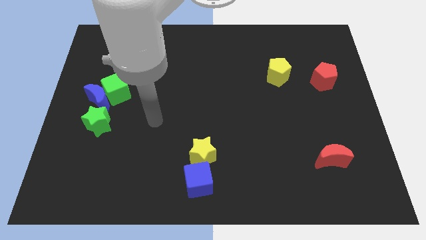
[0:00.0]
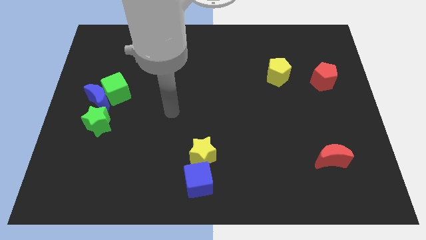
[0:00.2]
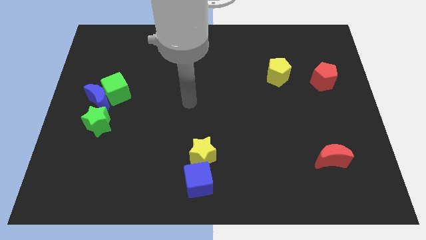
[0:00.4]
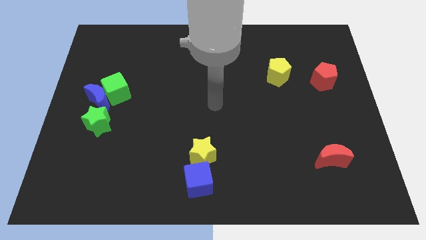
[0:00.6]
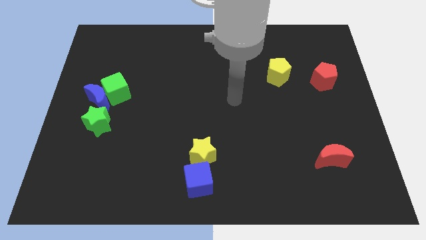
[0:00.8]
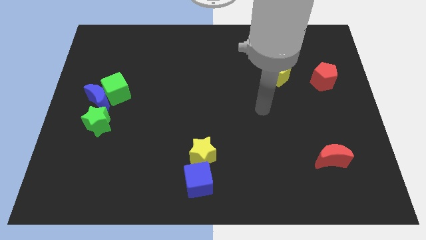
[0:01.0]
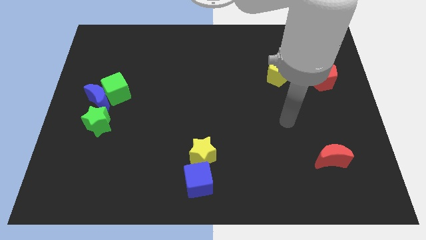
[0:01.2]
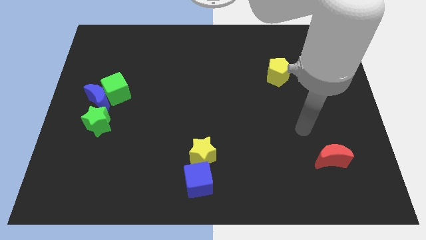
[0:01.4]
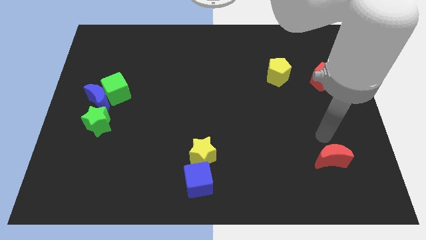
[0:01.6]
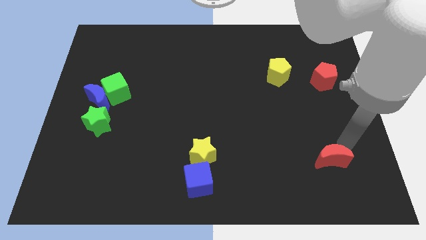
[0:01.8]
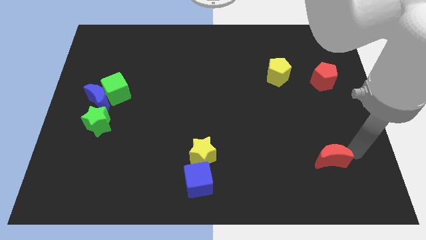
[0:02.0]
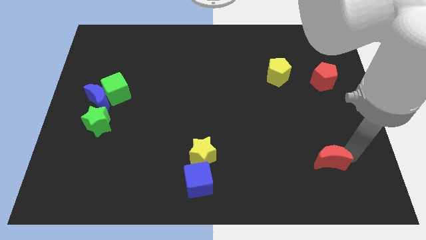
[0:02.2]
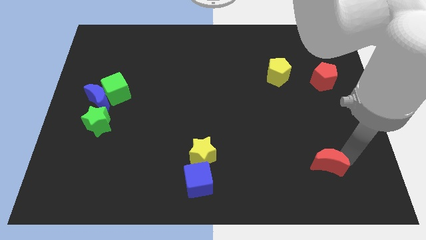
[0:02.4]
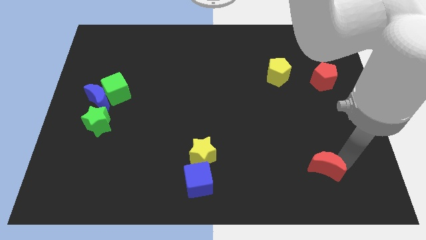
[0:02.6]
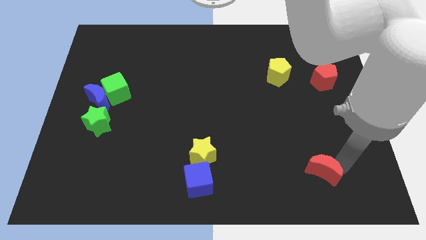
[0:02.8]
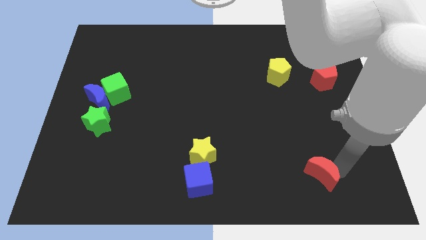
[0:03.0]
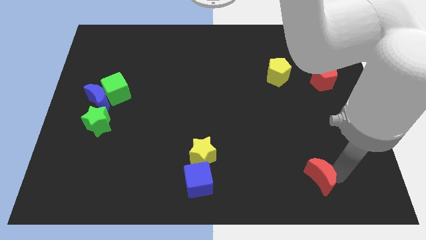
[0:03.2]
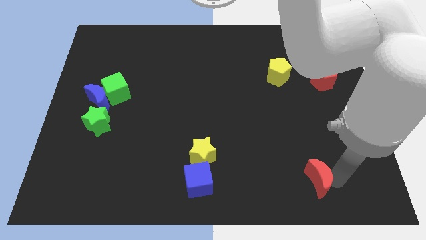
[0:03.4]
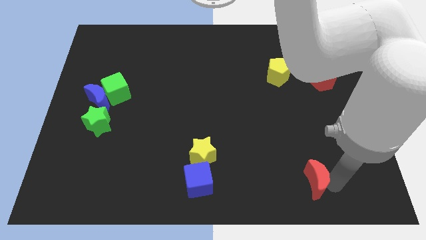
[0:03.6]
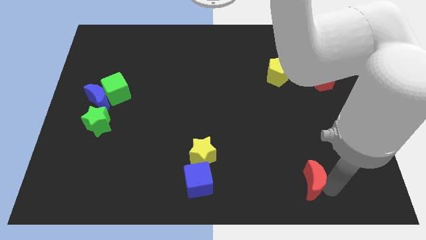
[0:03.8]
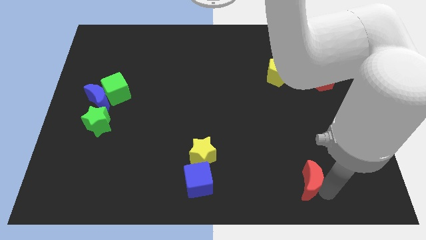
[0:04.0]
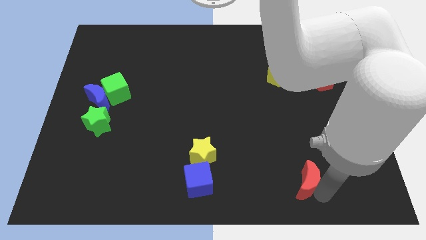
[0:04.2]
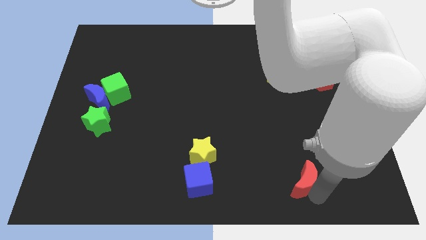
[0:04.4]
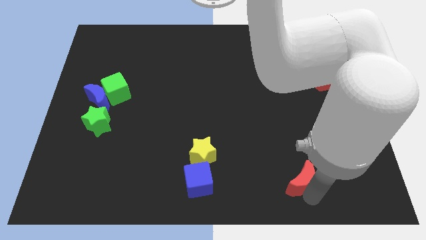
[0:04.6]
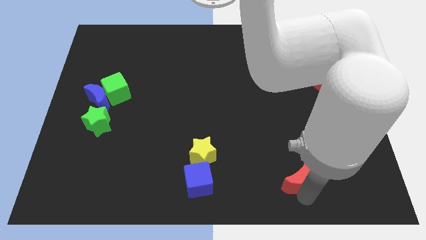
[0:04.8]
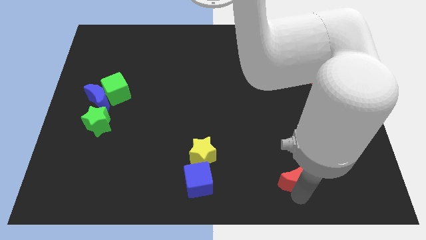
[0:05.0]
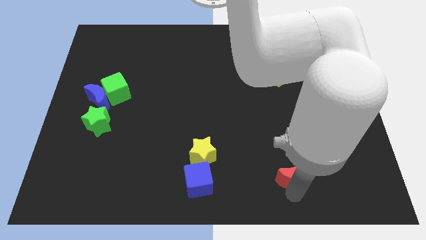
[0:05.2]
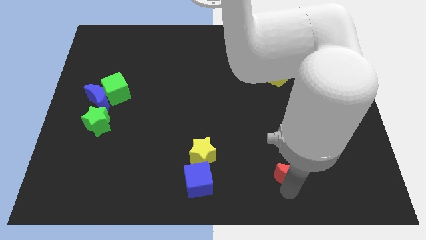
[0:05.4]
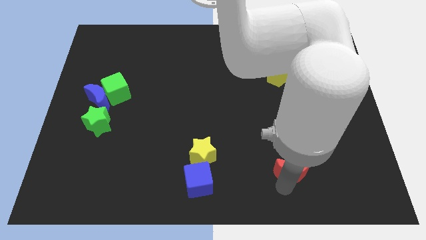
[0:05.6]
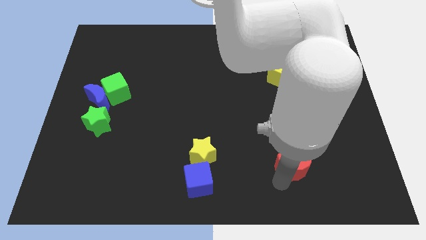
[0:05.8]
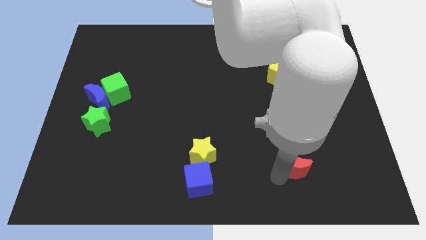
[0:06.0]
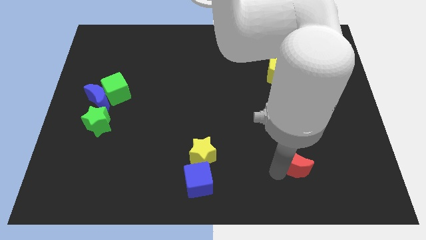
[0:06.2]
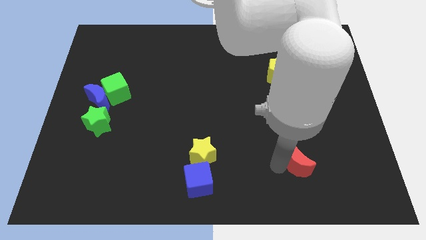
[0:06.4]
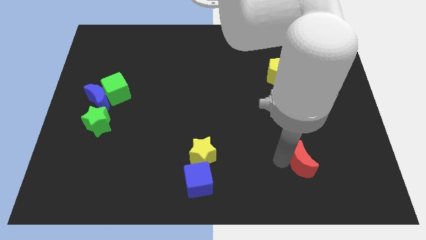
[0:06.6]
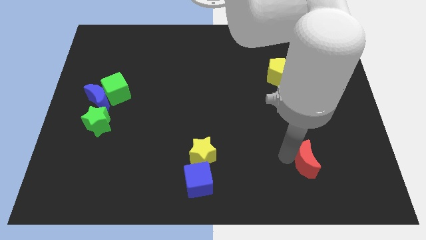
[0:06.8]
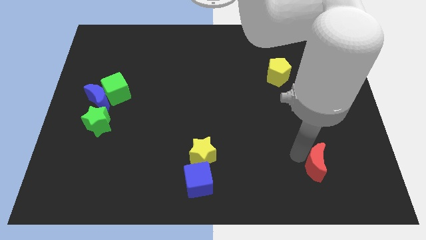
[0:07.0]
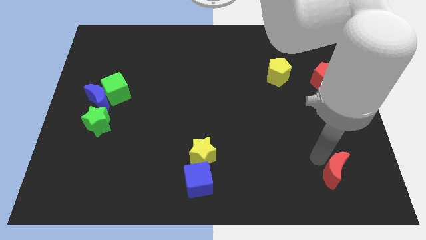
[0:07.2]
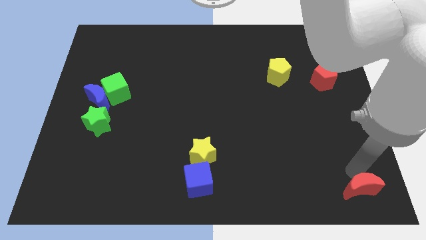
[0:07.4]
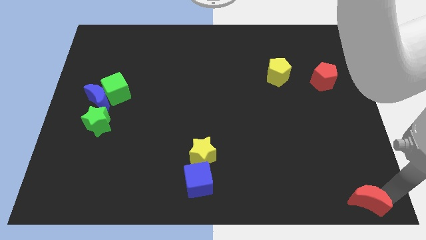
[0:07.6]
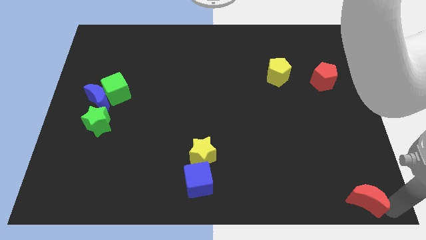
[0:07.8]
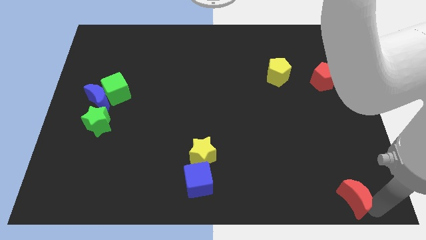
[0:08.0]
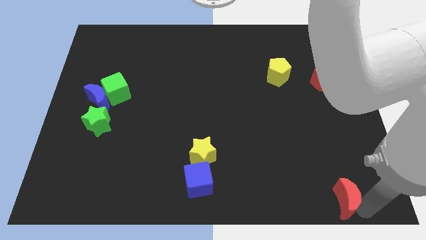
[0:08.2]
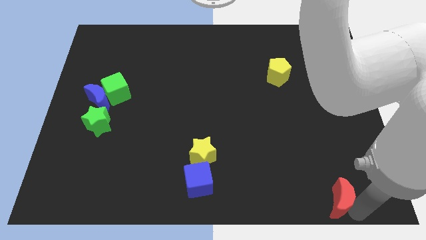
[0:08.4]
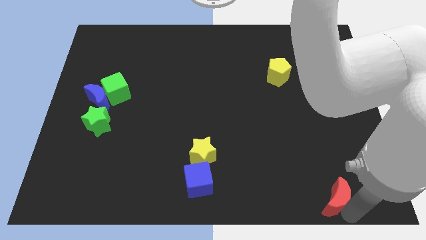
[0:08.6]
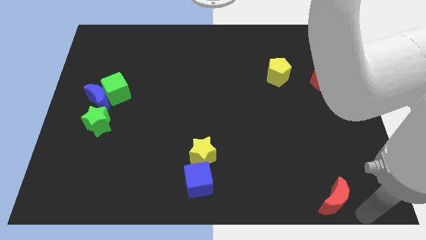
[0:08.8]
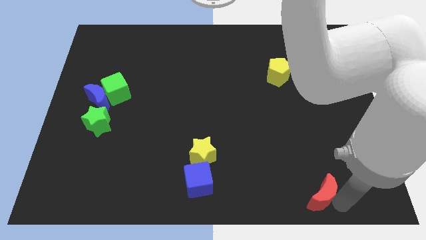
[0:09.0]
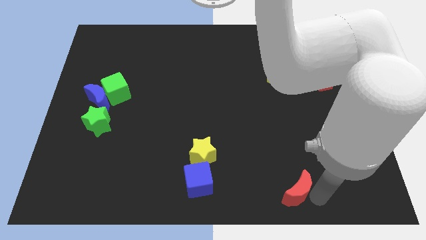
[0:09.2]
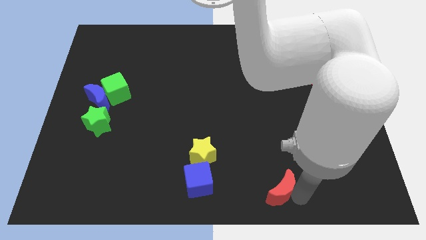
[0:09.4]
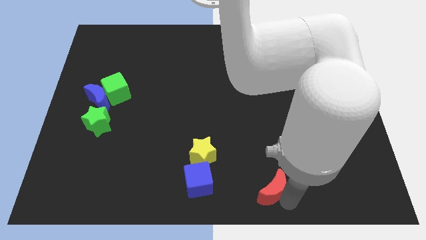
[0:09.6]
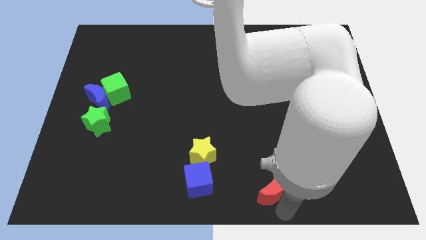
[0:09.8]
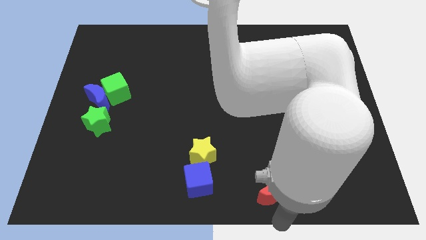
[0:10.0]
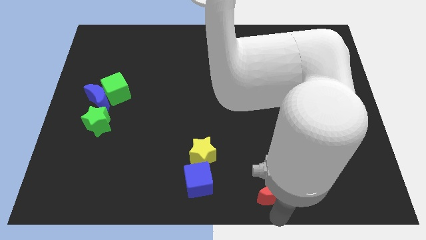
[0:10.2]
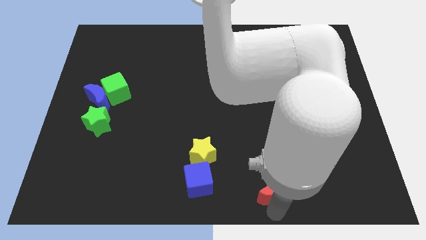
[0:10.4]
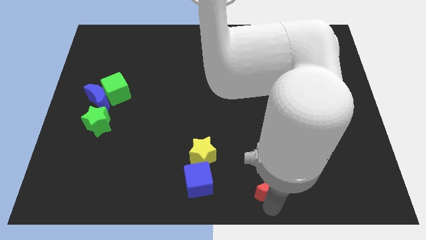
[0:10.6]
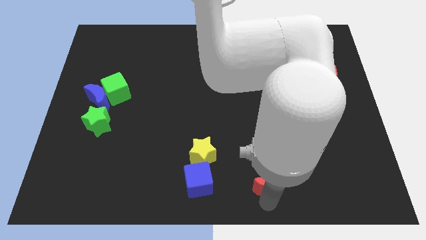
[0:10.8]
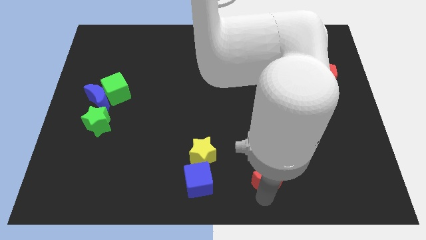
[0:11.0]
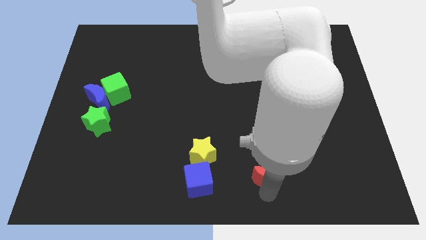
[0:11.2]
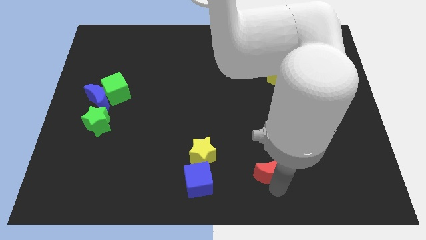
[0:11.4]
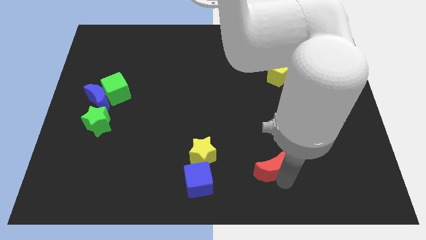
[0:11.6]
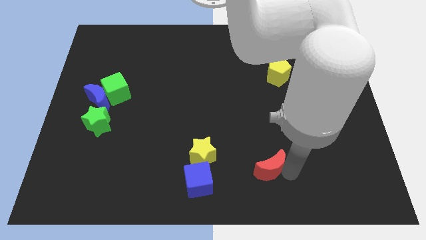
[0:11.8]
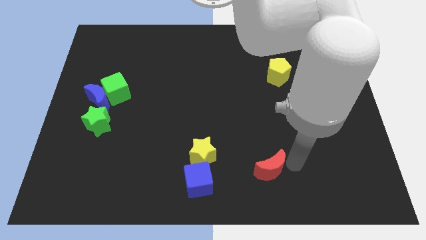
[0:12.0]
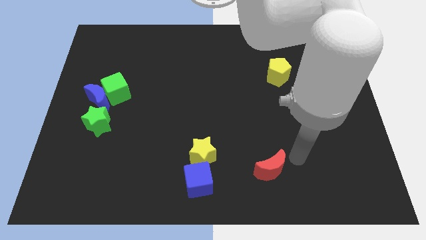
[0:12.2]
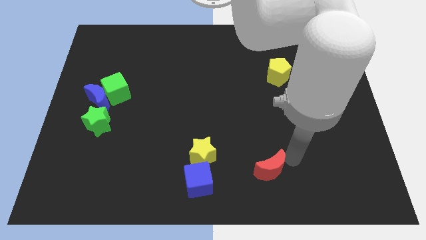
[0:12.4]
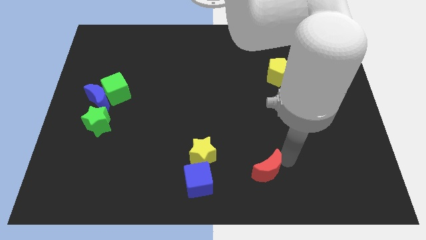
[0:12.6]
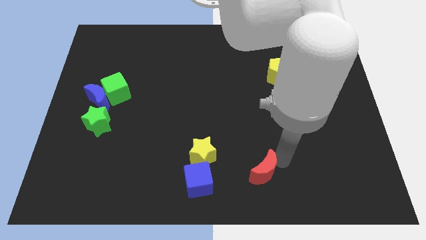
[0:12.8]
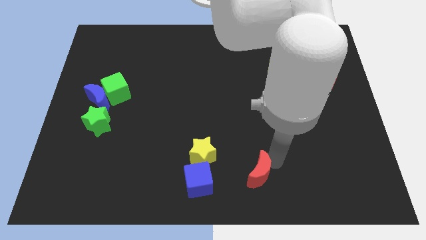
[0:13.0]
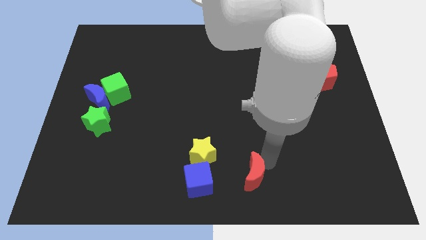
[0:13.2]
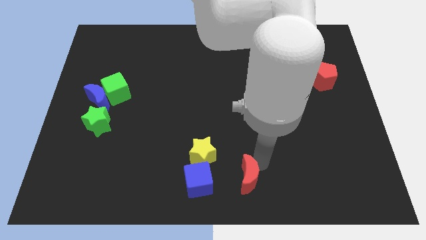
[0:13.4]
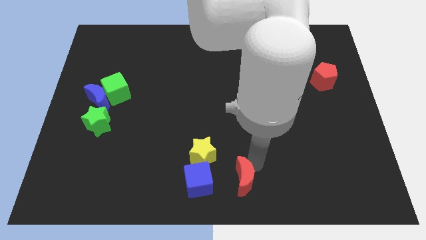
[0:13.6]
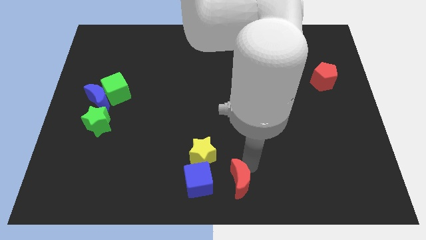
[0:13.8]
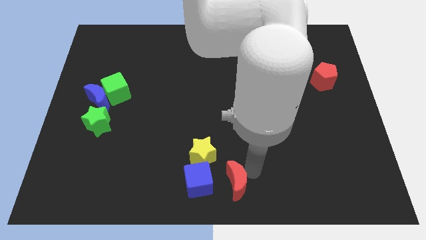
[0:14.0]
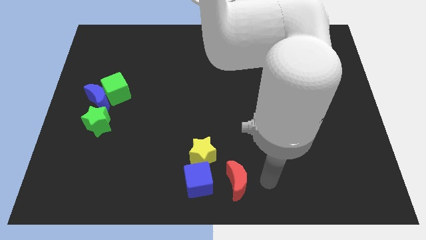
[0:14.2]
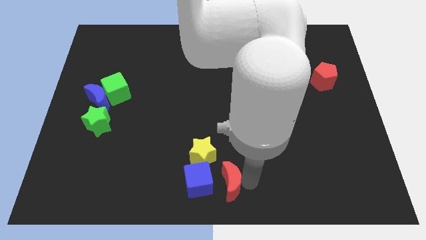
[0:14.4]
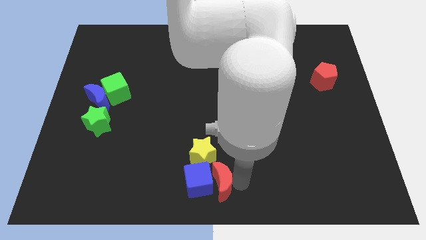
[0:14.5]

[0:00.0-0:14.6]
push the red moon to the blue cube

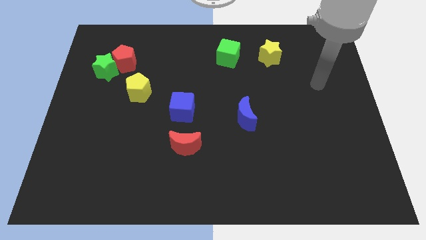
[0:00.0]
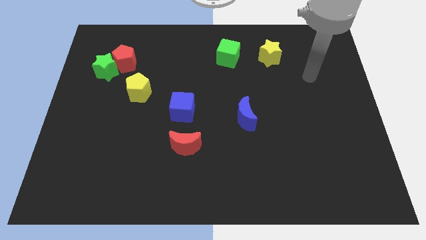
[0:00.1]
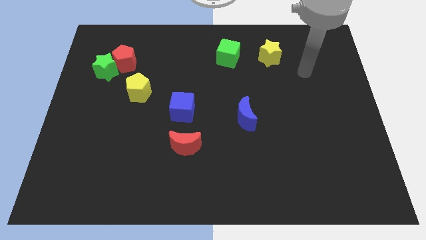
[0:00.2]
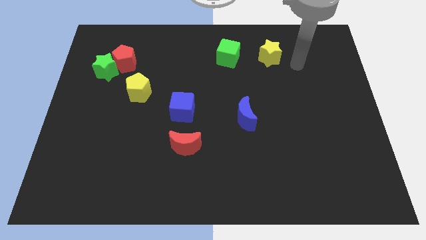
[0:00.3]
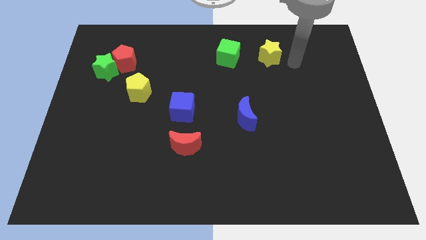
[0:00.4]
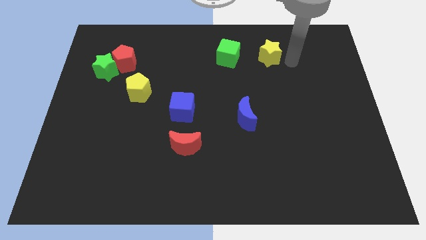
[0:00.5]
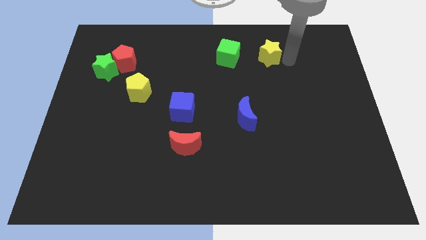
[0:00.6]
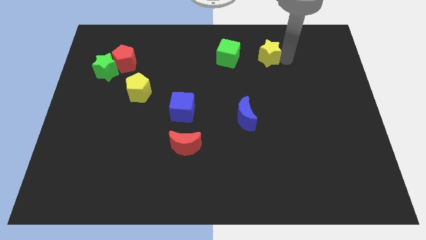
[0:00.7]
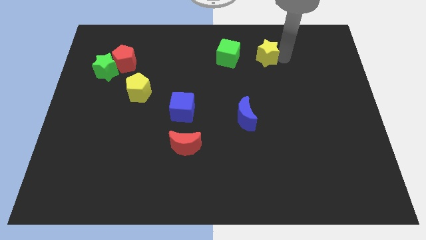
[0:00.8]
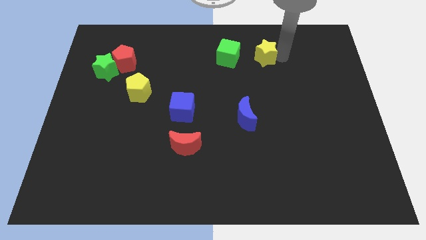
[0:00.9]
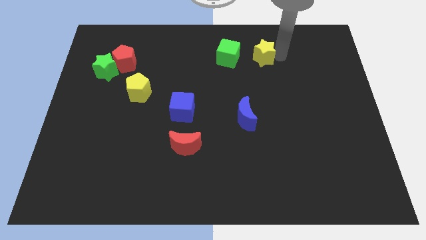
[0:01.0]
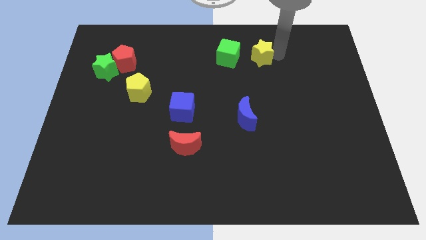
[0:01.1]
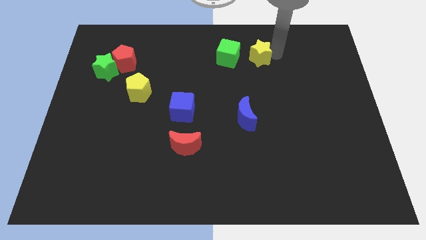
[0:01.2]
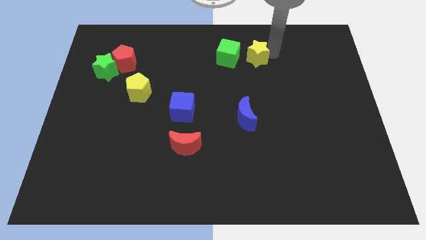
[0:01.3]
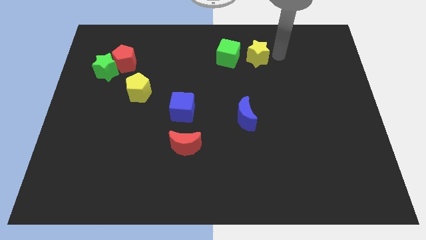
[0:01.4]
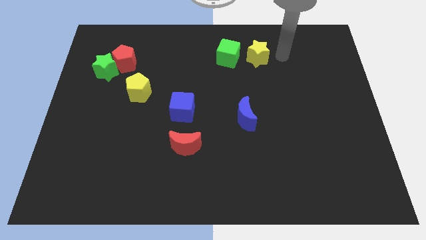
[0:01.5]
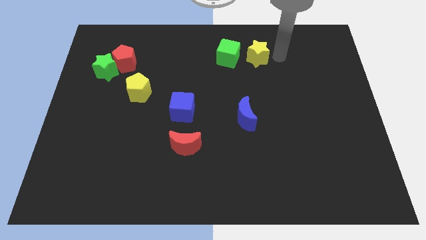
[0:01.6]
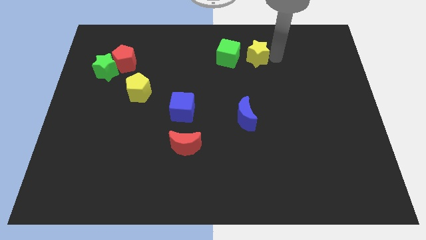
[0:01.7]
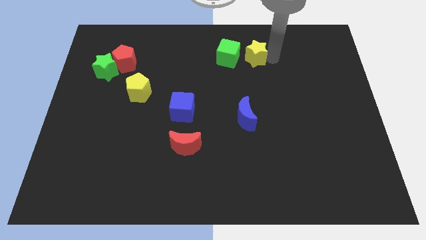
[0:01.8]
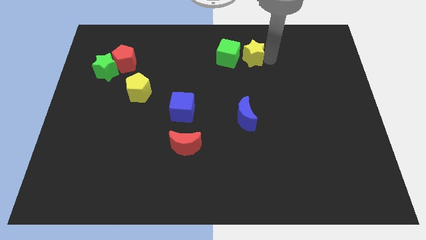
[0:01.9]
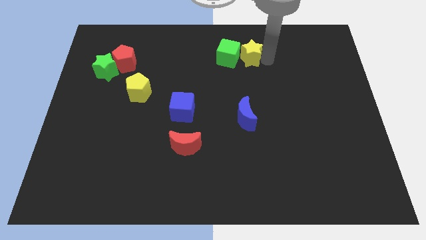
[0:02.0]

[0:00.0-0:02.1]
slide the yellow star towards the green cube
